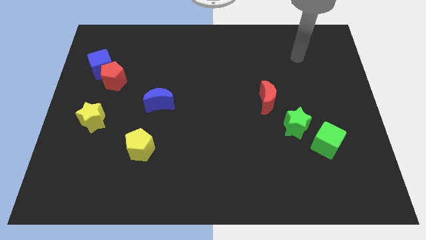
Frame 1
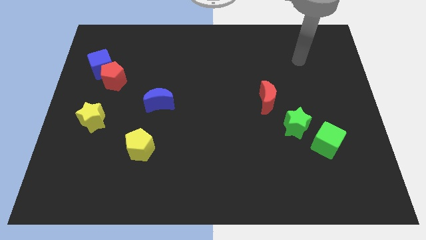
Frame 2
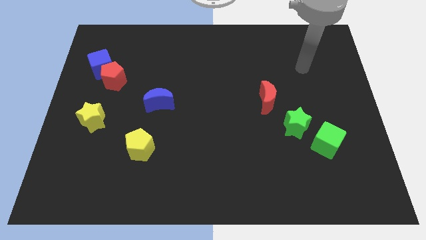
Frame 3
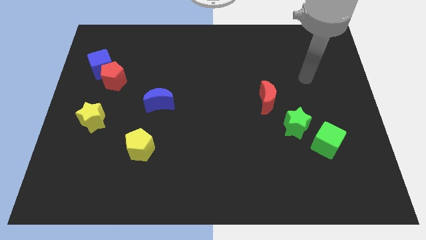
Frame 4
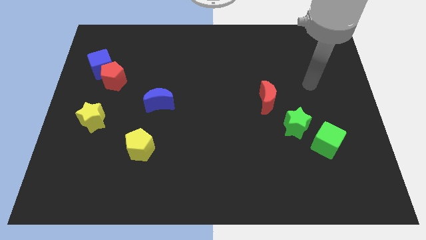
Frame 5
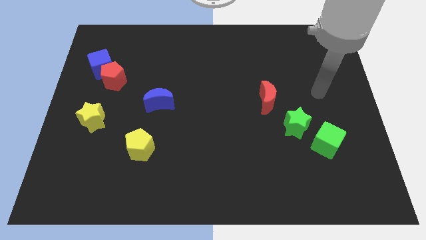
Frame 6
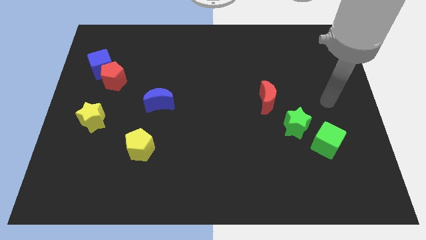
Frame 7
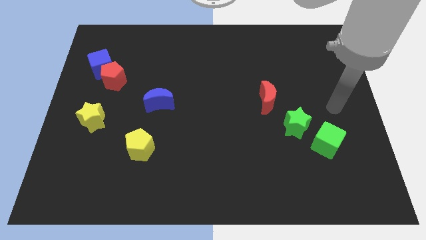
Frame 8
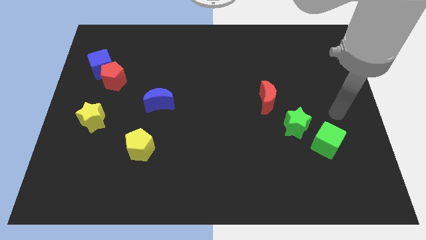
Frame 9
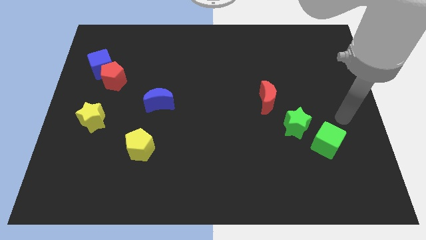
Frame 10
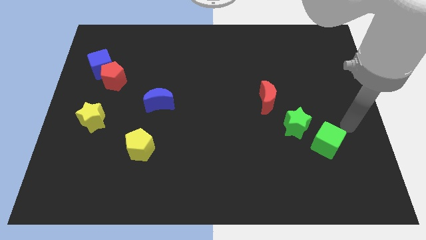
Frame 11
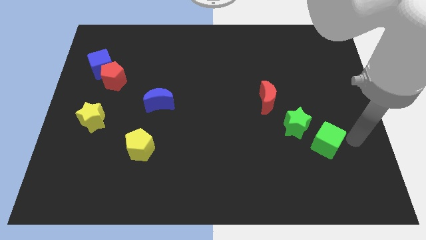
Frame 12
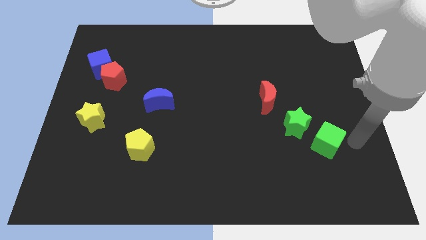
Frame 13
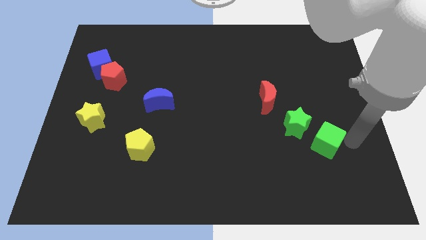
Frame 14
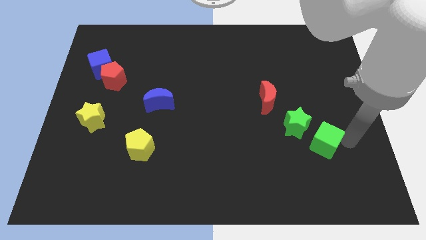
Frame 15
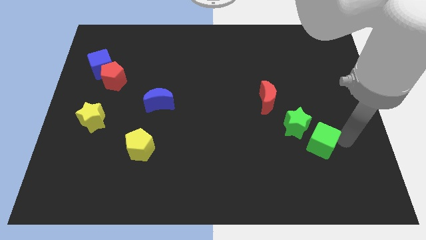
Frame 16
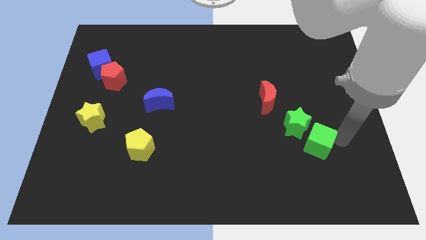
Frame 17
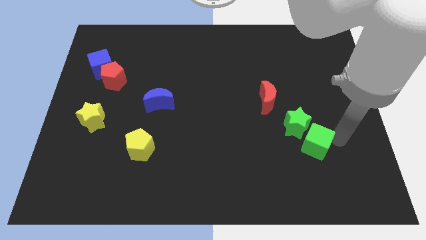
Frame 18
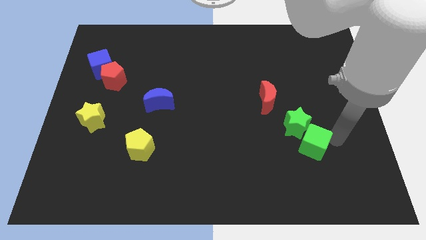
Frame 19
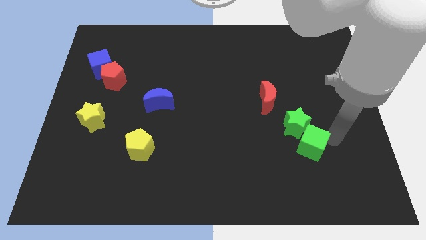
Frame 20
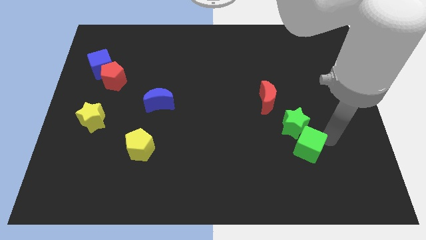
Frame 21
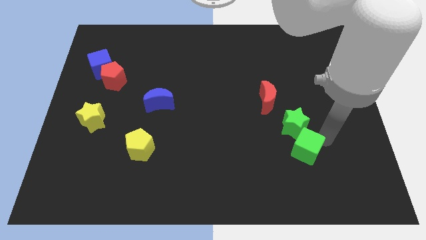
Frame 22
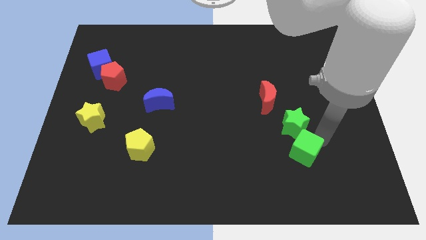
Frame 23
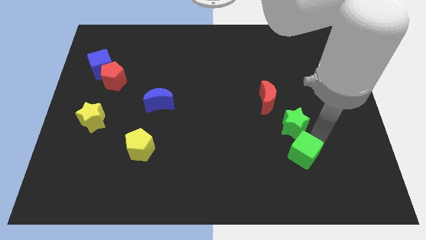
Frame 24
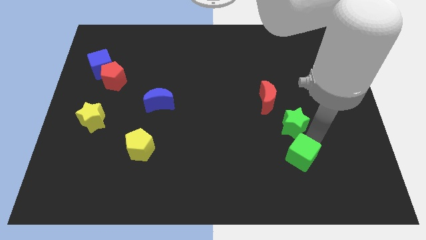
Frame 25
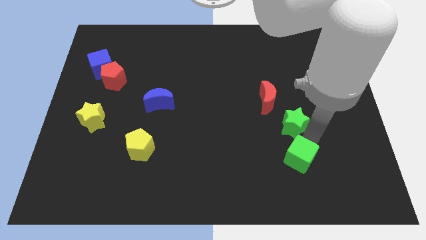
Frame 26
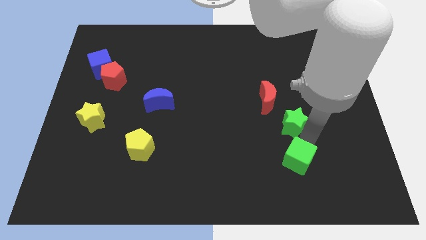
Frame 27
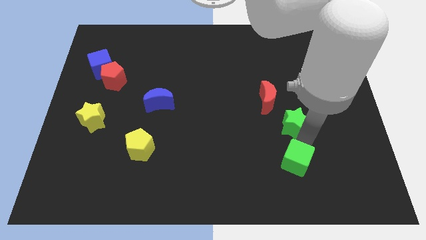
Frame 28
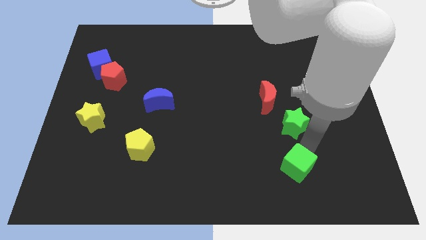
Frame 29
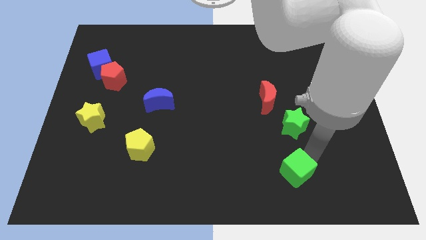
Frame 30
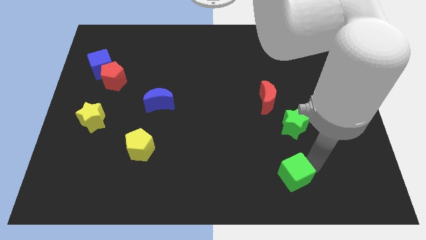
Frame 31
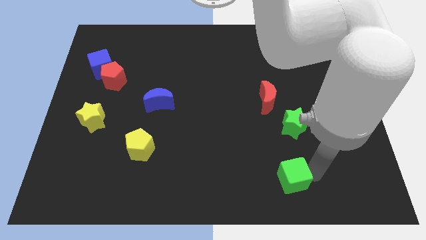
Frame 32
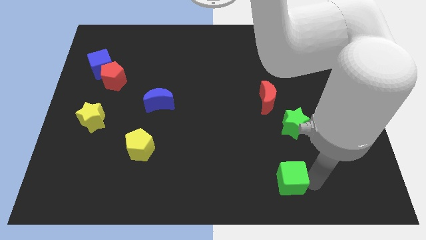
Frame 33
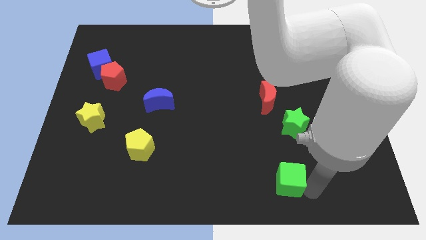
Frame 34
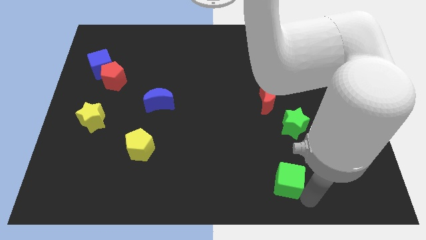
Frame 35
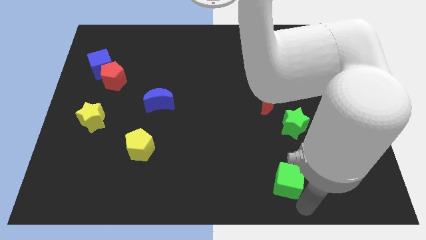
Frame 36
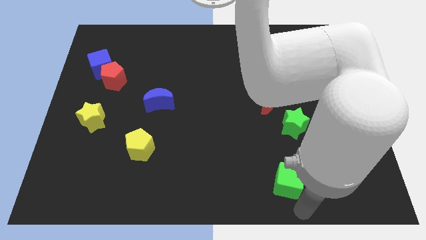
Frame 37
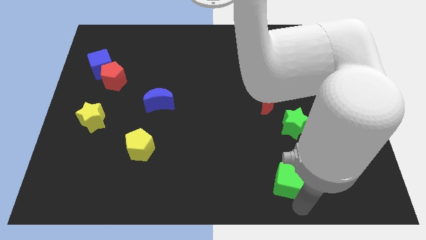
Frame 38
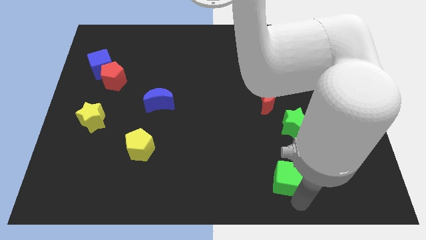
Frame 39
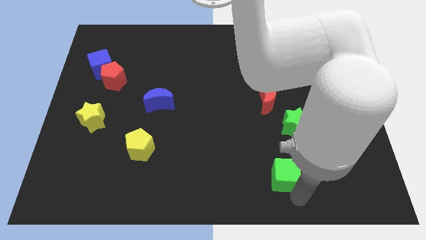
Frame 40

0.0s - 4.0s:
push the green cube to the left somewhat

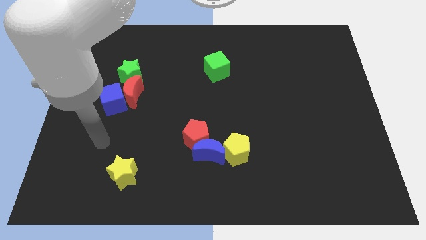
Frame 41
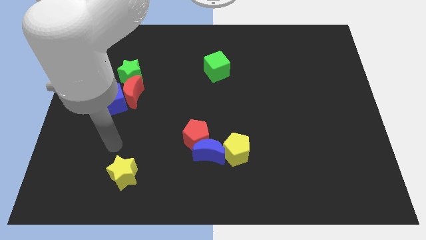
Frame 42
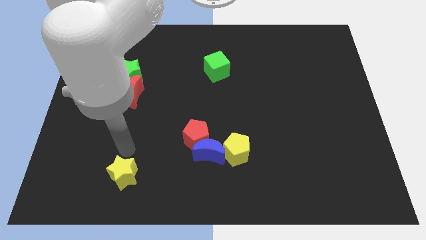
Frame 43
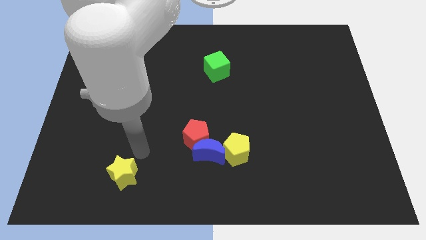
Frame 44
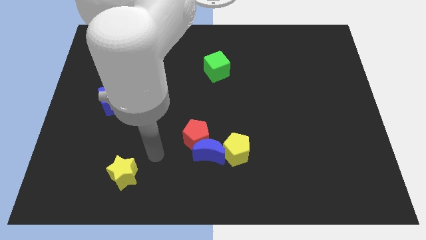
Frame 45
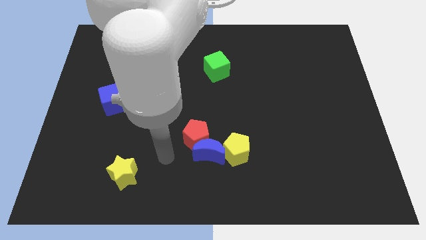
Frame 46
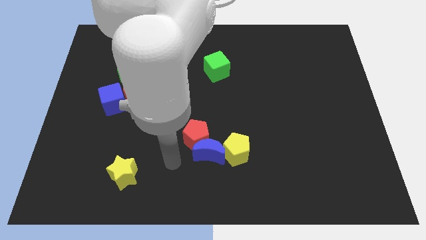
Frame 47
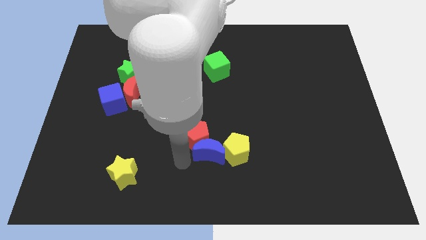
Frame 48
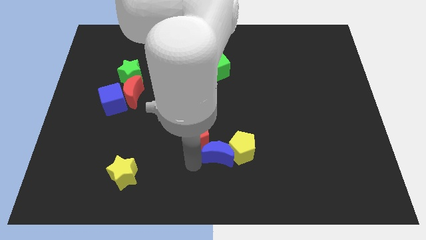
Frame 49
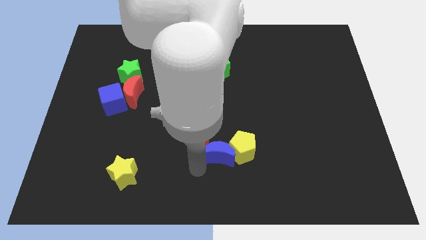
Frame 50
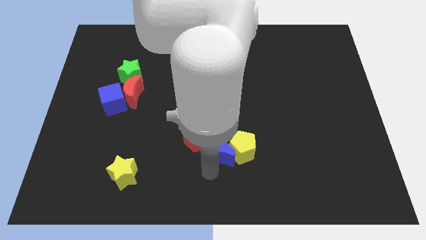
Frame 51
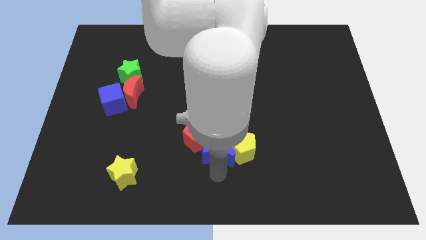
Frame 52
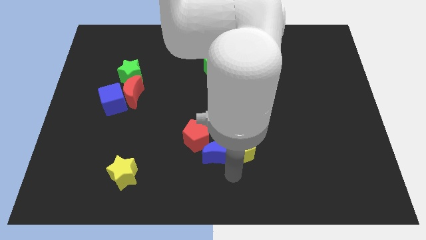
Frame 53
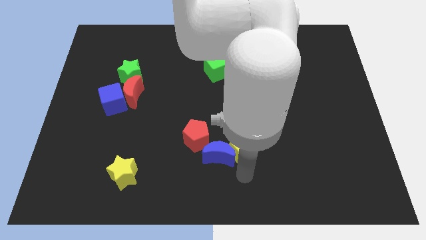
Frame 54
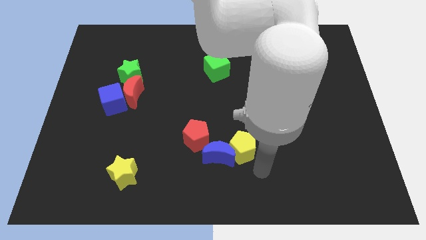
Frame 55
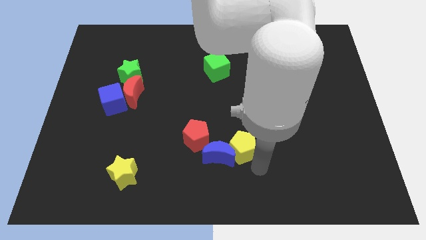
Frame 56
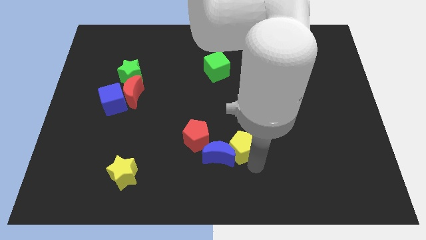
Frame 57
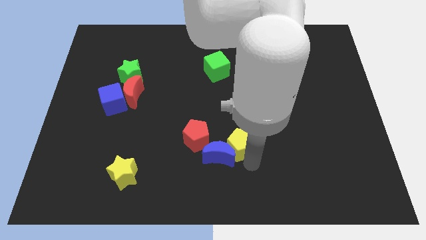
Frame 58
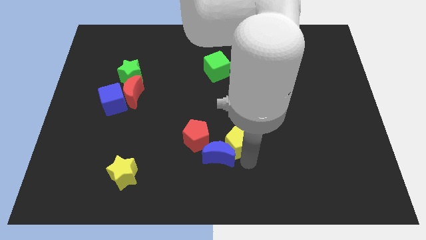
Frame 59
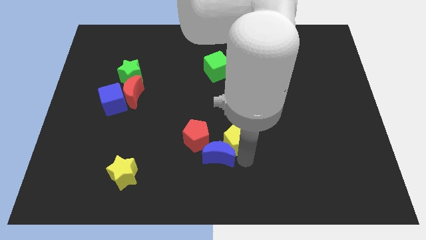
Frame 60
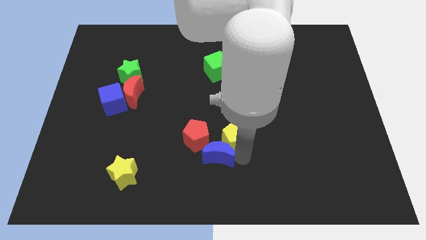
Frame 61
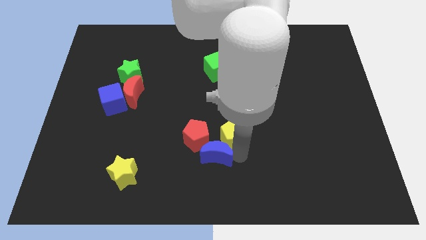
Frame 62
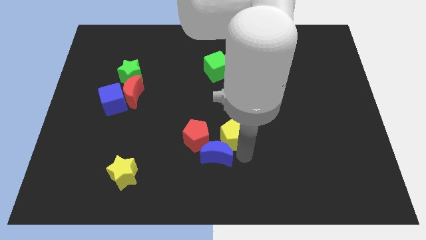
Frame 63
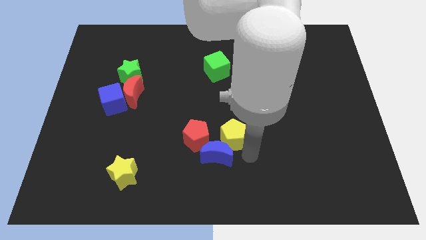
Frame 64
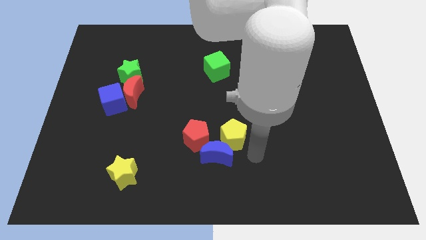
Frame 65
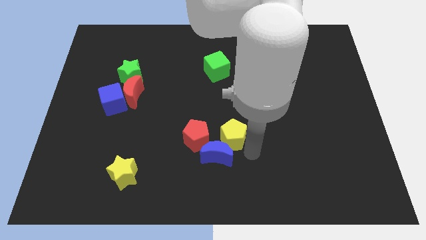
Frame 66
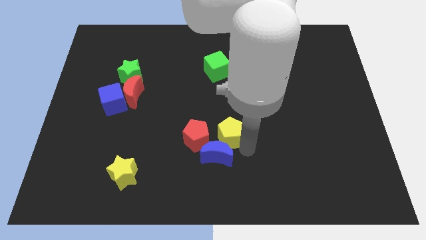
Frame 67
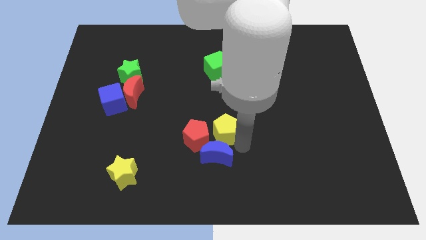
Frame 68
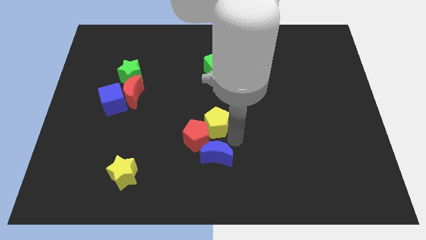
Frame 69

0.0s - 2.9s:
slightly push the yellow pentagon up and left diagonally

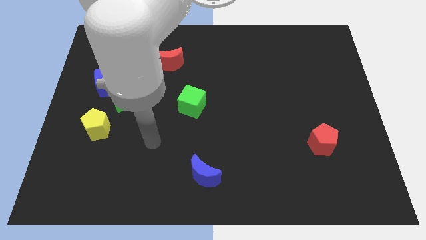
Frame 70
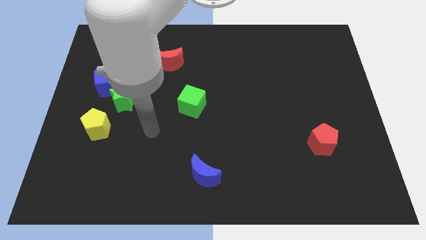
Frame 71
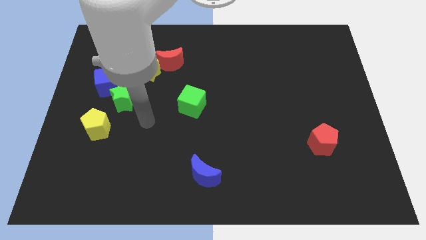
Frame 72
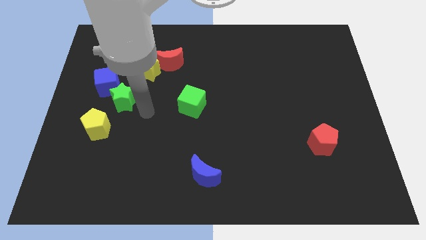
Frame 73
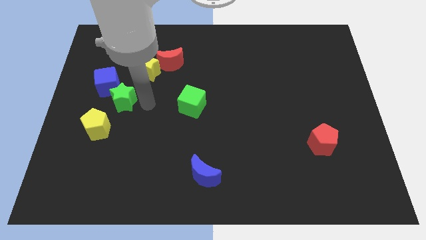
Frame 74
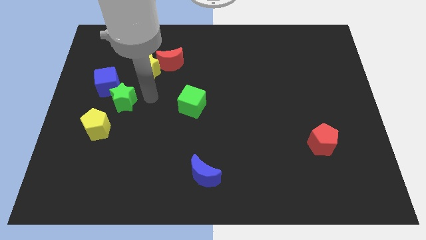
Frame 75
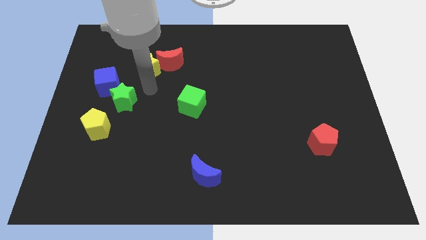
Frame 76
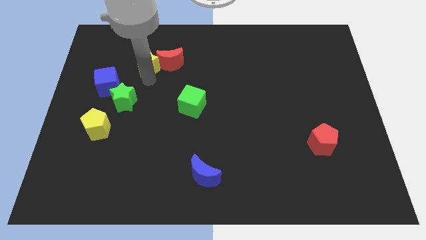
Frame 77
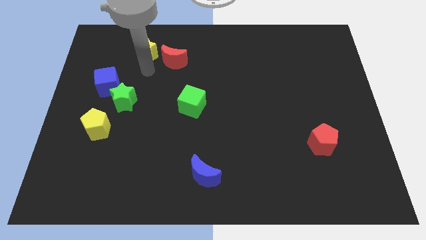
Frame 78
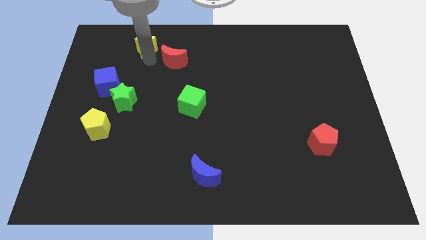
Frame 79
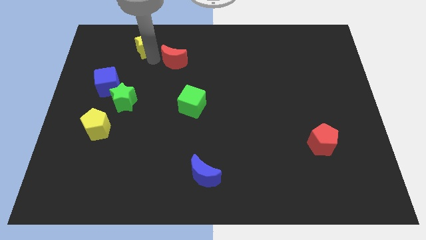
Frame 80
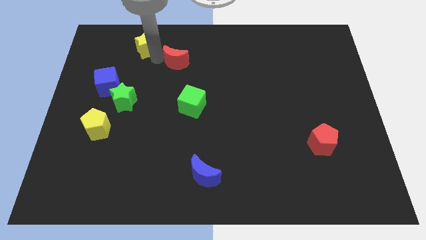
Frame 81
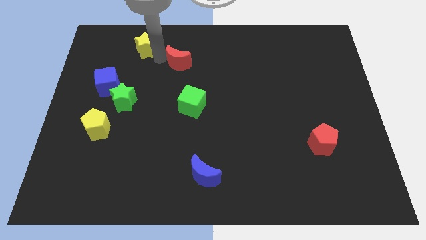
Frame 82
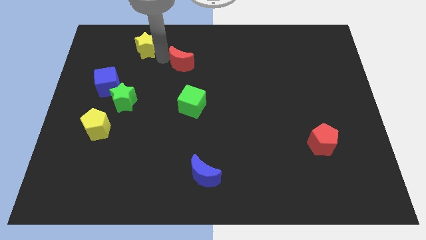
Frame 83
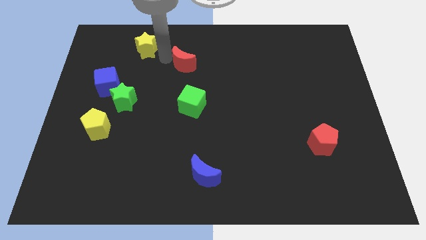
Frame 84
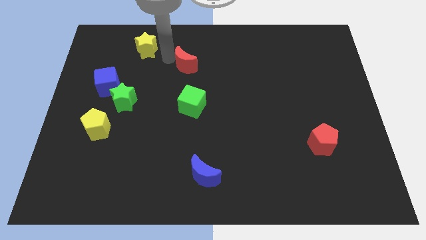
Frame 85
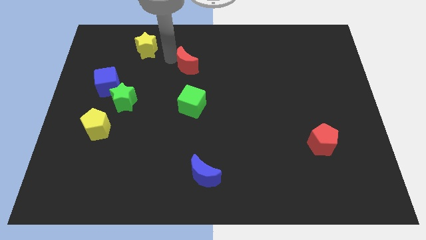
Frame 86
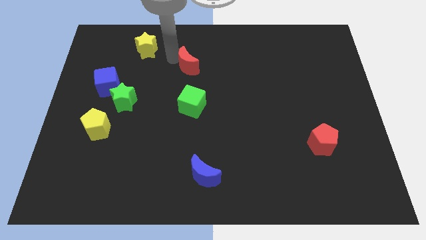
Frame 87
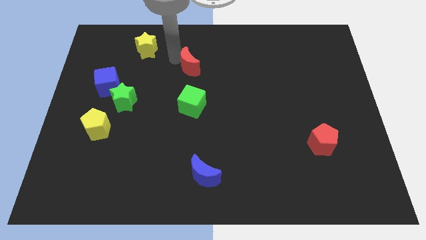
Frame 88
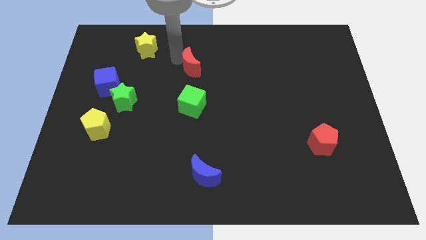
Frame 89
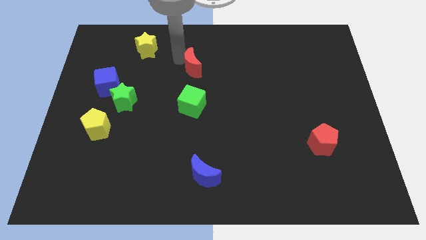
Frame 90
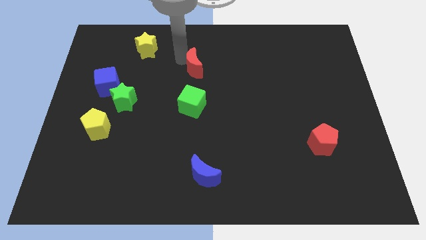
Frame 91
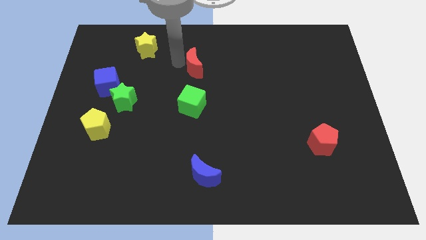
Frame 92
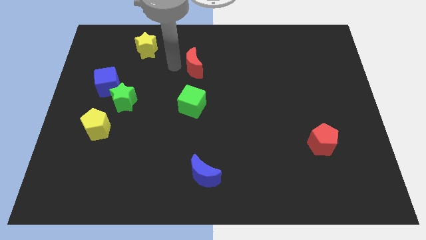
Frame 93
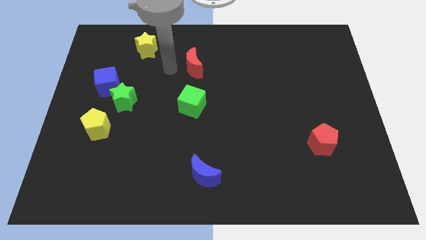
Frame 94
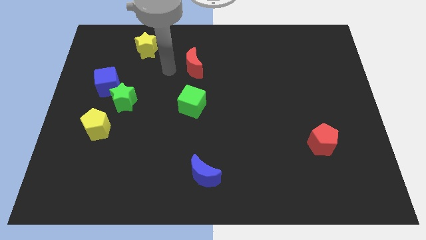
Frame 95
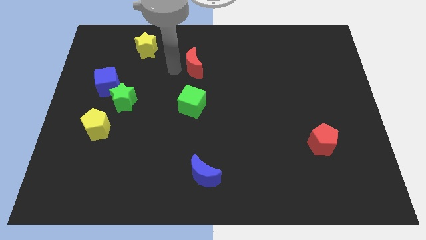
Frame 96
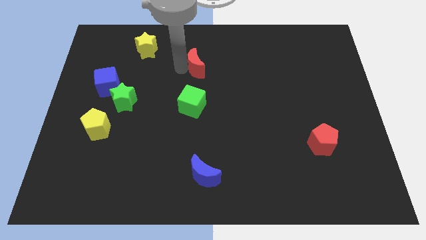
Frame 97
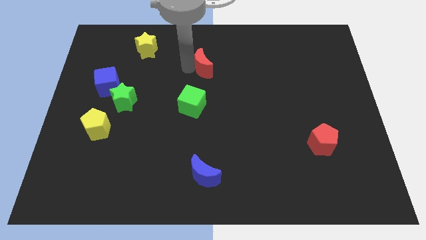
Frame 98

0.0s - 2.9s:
push the red moon slightly to the right
